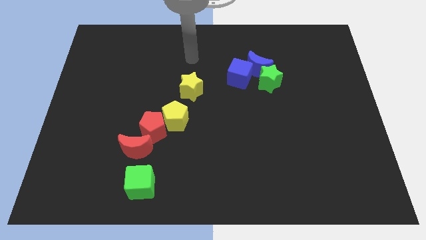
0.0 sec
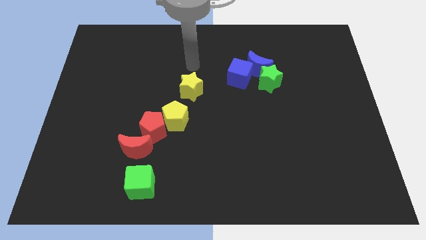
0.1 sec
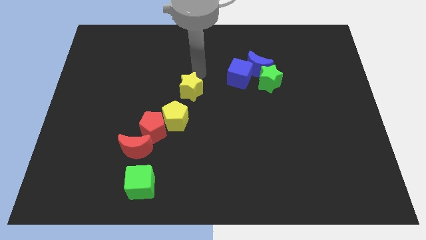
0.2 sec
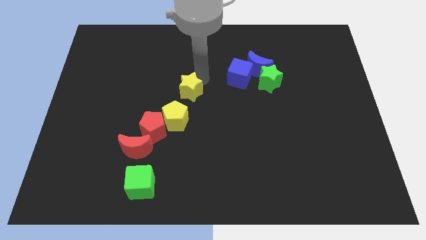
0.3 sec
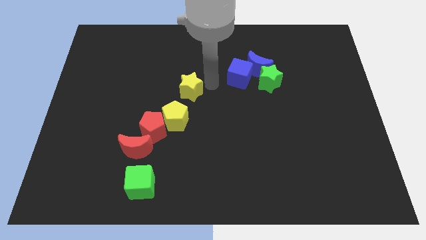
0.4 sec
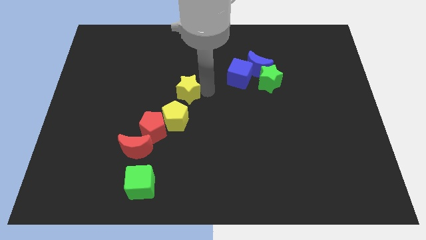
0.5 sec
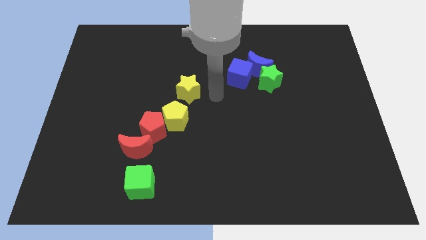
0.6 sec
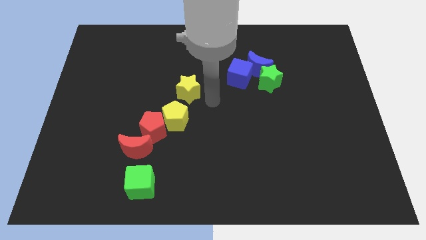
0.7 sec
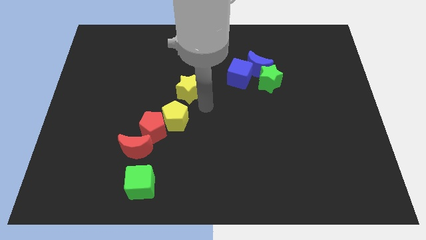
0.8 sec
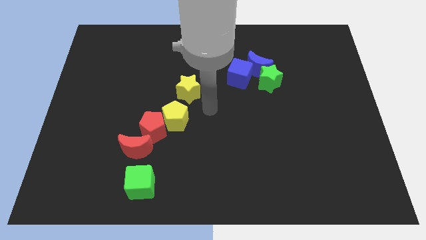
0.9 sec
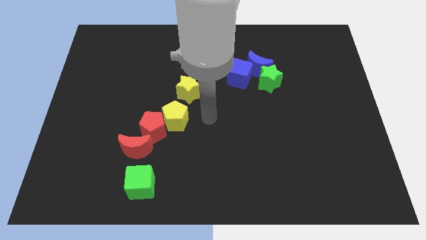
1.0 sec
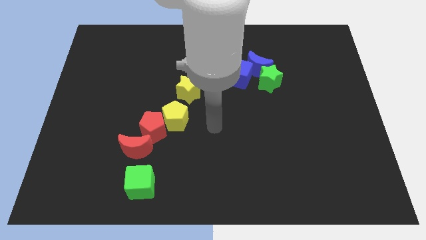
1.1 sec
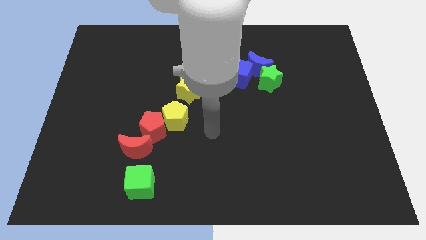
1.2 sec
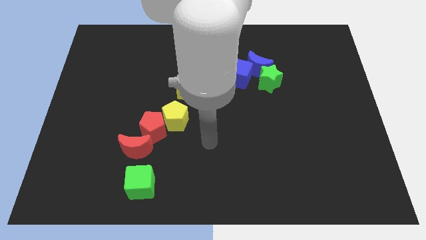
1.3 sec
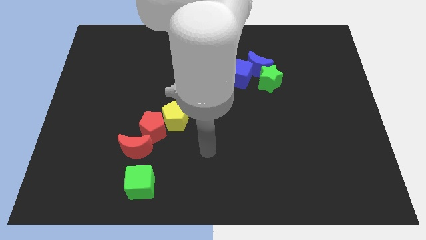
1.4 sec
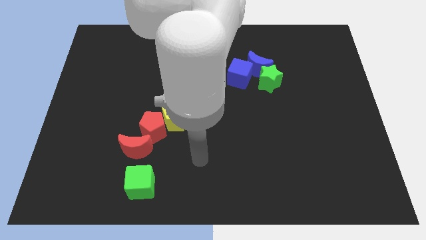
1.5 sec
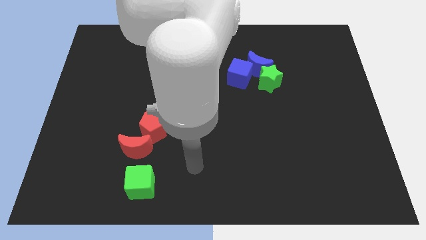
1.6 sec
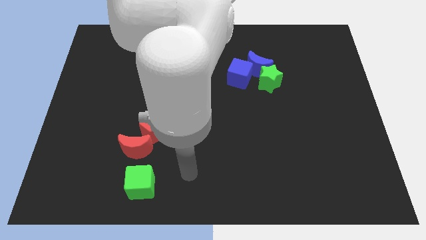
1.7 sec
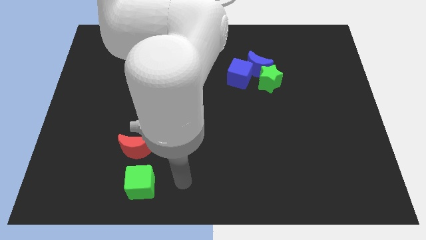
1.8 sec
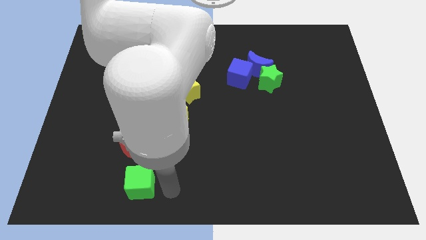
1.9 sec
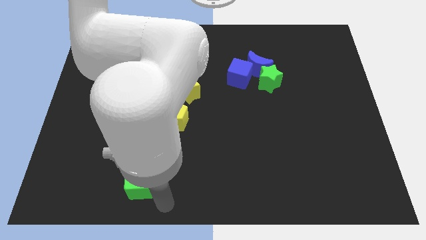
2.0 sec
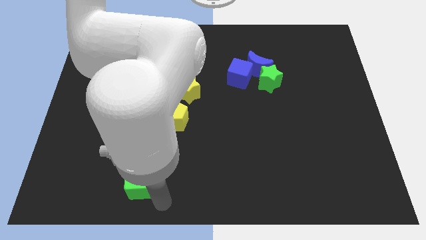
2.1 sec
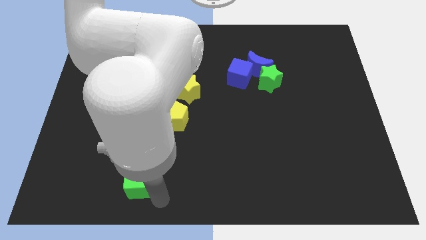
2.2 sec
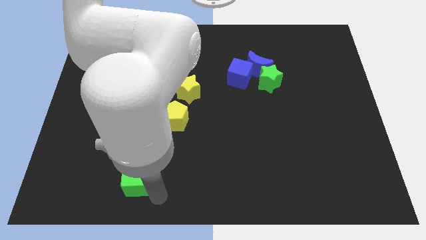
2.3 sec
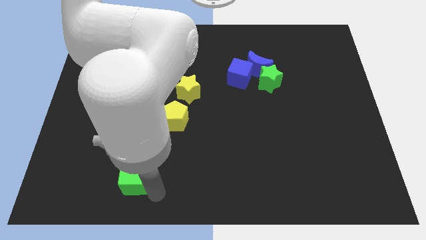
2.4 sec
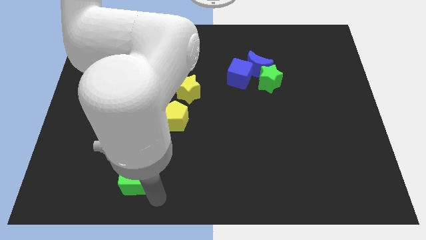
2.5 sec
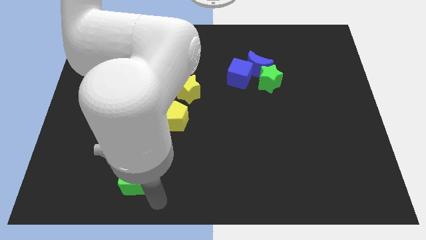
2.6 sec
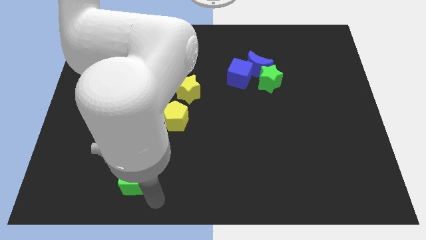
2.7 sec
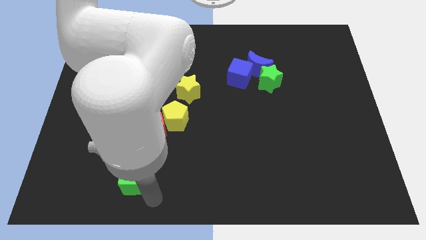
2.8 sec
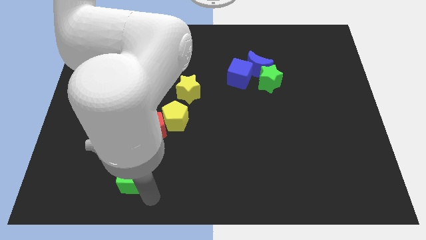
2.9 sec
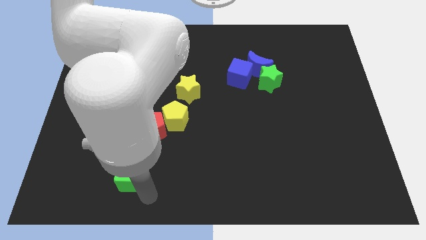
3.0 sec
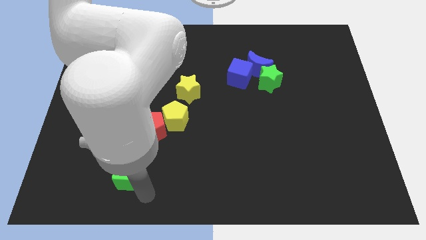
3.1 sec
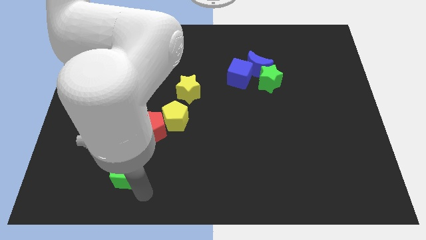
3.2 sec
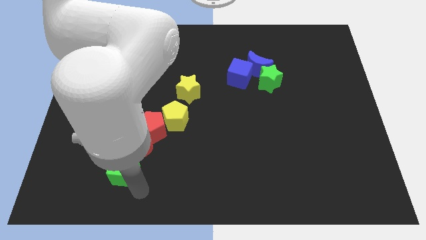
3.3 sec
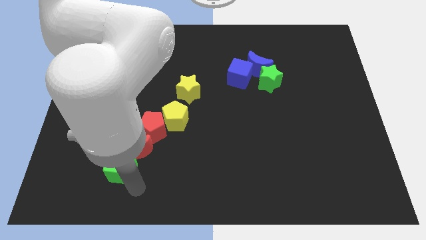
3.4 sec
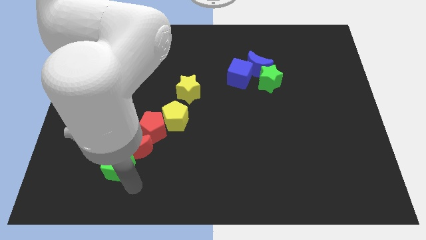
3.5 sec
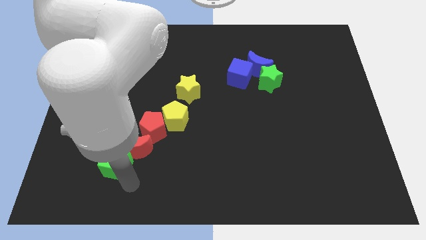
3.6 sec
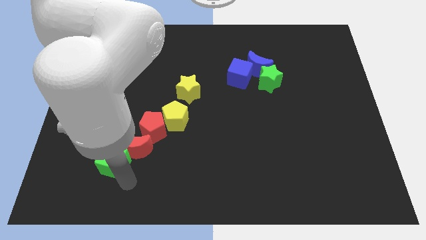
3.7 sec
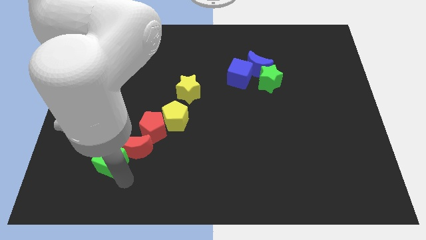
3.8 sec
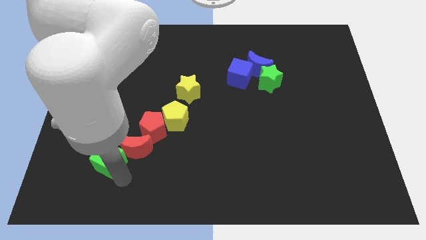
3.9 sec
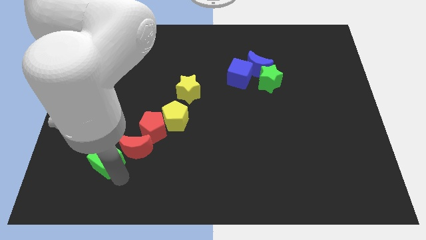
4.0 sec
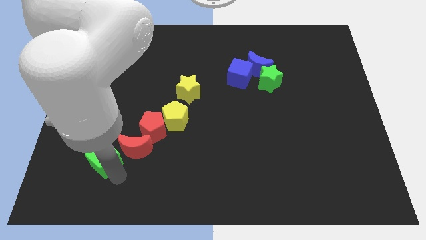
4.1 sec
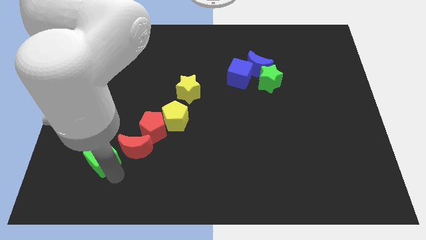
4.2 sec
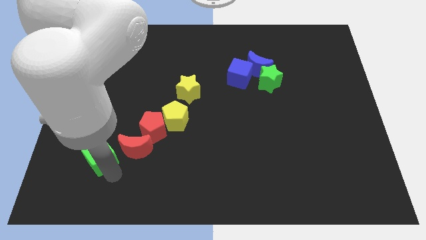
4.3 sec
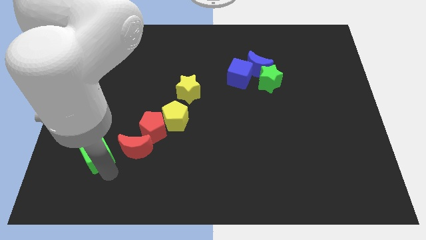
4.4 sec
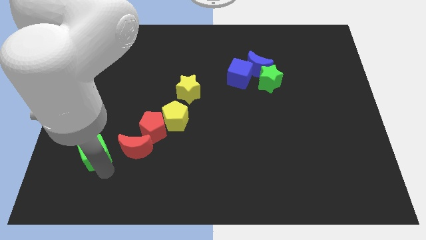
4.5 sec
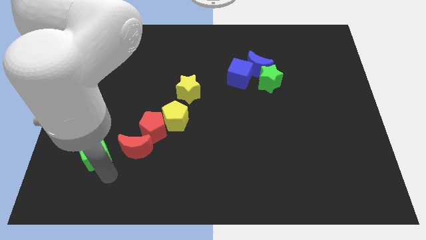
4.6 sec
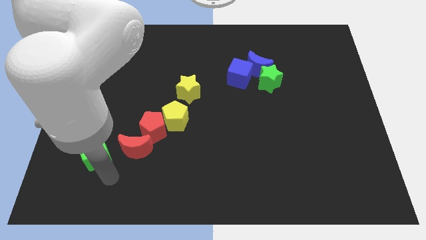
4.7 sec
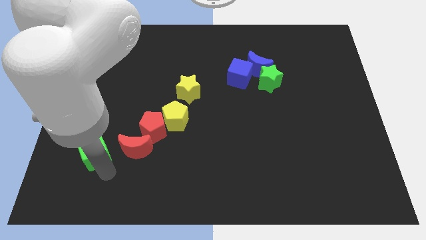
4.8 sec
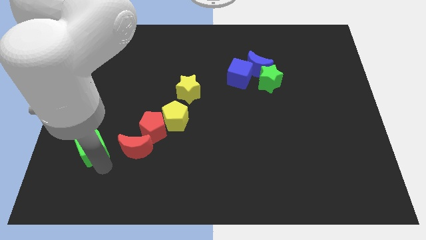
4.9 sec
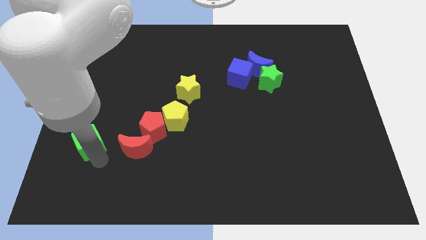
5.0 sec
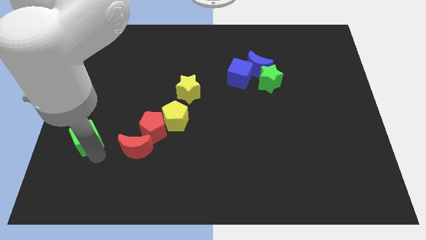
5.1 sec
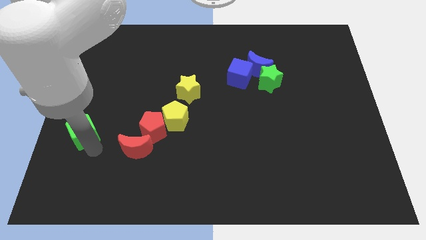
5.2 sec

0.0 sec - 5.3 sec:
move the green cube to the center left

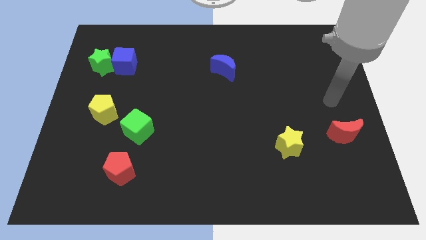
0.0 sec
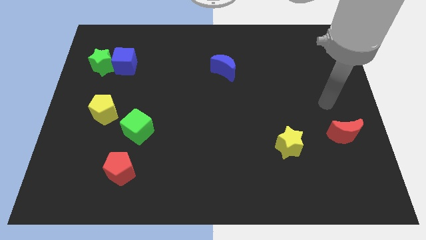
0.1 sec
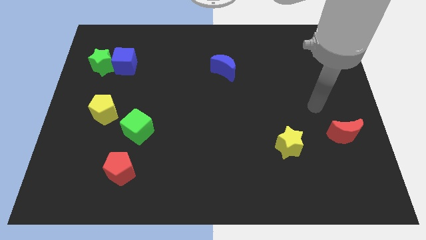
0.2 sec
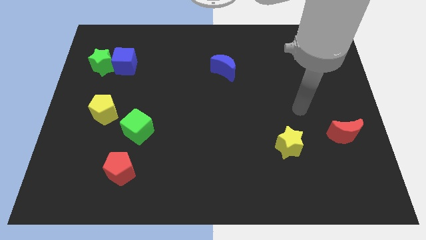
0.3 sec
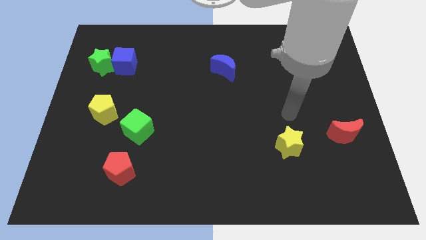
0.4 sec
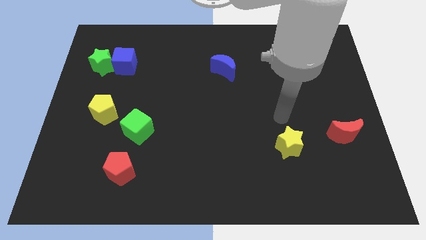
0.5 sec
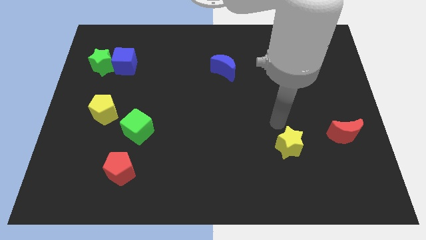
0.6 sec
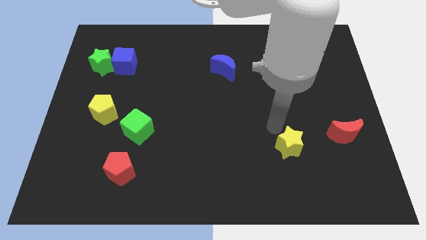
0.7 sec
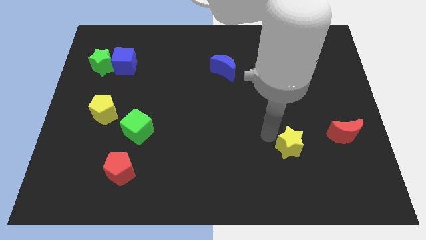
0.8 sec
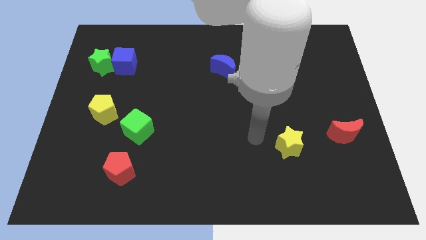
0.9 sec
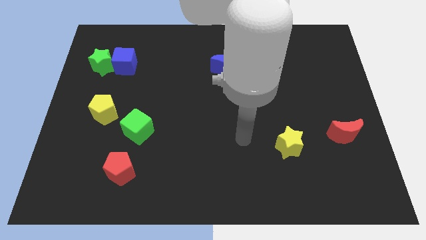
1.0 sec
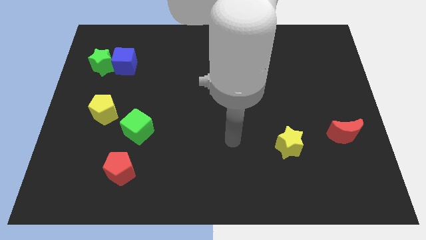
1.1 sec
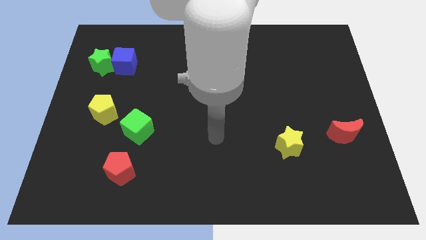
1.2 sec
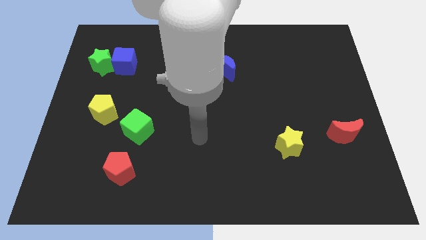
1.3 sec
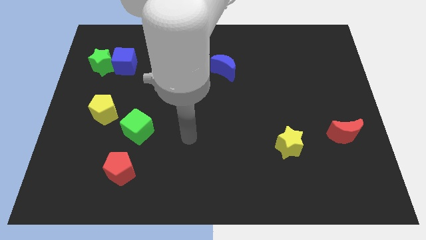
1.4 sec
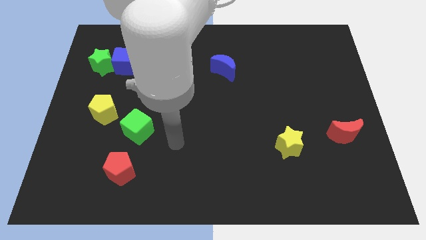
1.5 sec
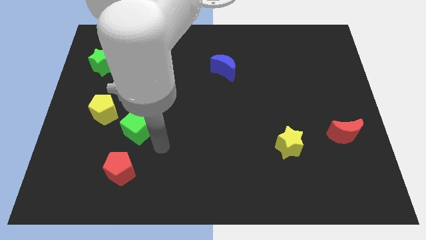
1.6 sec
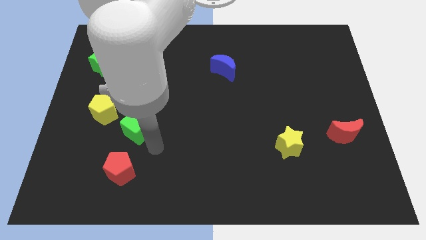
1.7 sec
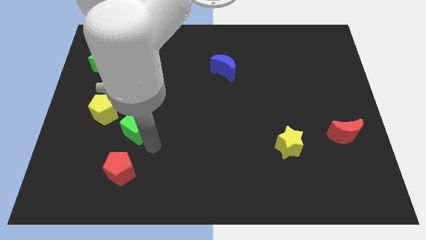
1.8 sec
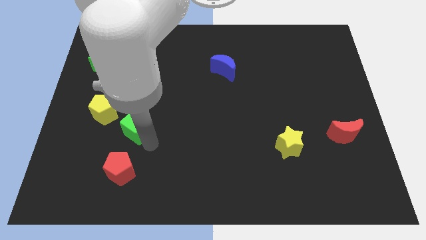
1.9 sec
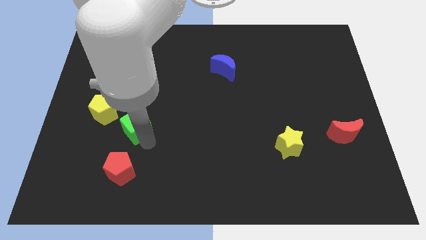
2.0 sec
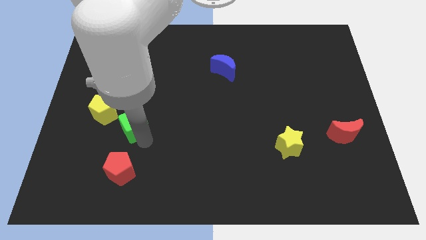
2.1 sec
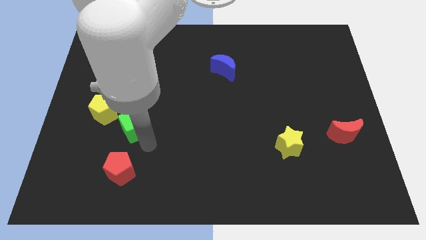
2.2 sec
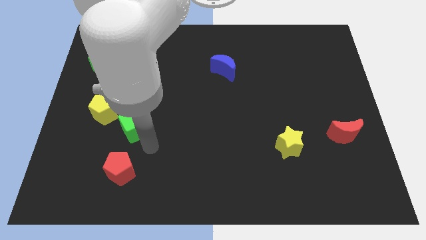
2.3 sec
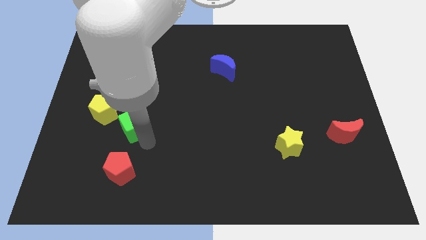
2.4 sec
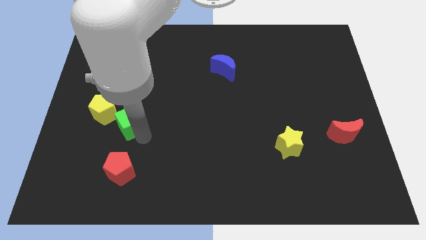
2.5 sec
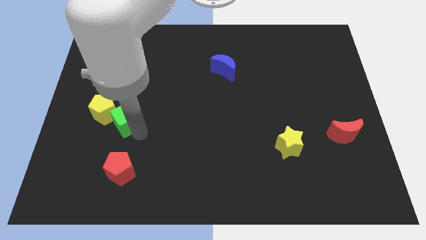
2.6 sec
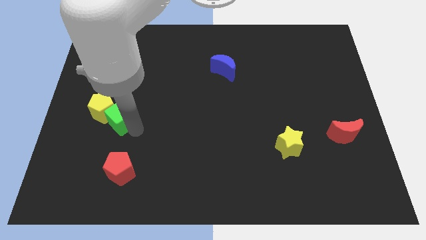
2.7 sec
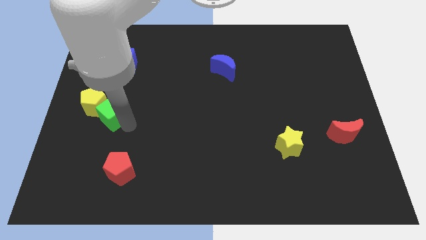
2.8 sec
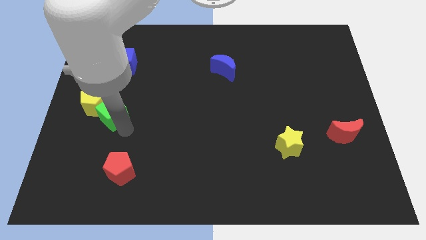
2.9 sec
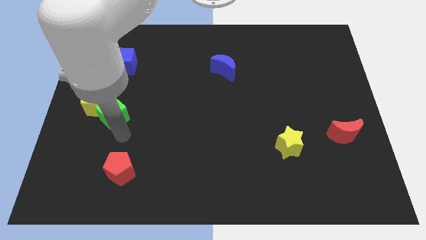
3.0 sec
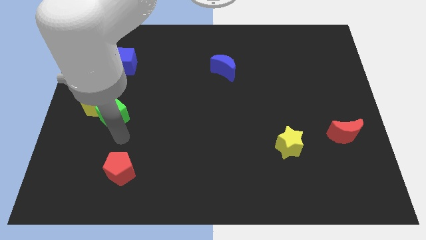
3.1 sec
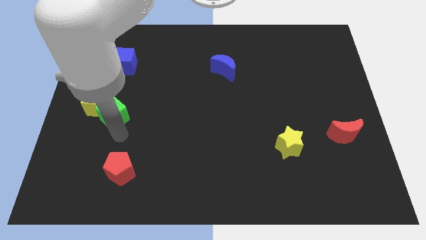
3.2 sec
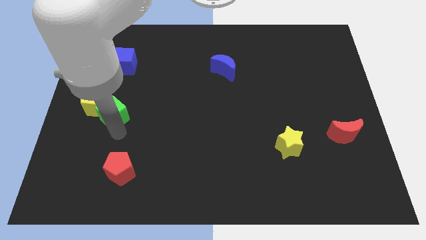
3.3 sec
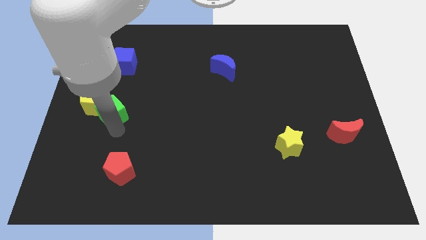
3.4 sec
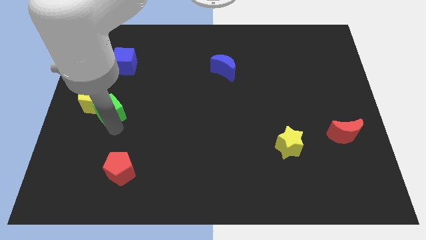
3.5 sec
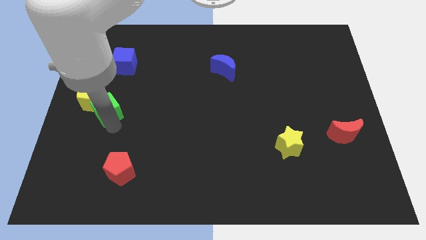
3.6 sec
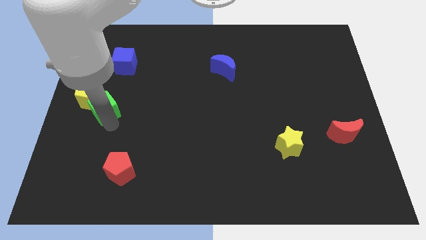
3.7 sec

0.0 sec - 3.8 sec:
push the green cube to the left side of the board
